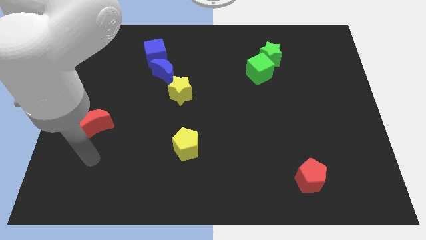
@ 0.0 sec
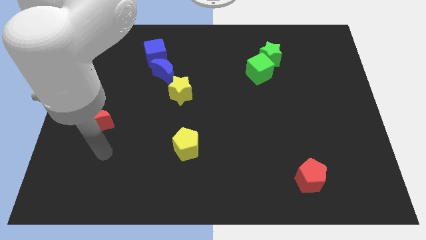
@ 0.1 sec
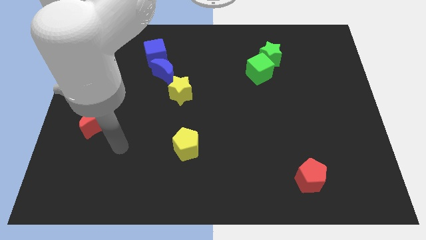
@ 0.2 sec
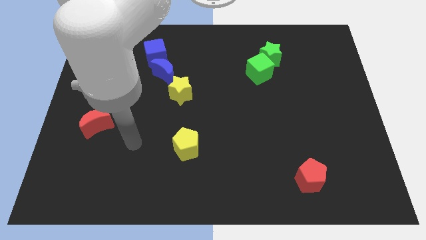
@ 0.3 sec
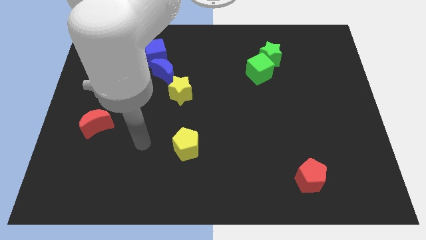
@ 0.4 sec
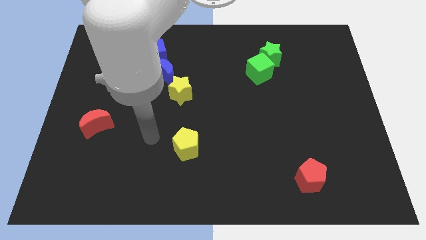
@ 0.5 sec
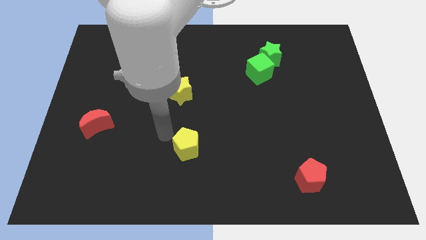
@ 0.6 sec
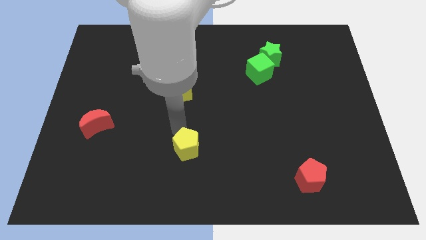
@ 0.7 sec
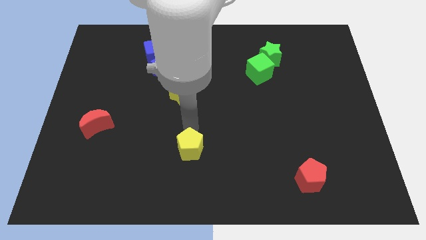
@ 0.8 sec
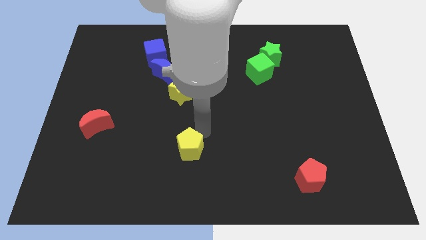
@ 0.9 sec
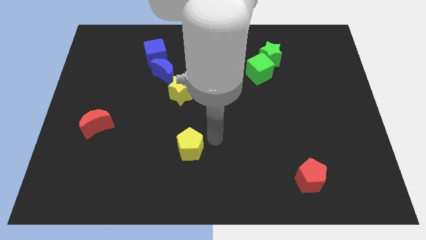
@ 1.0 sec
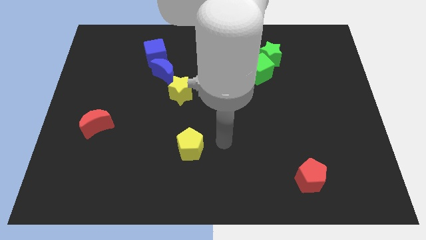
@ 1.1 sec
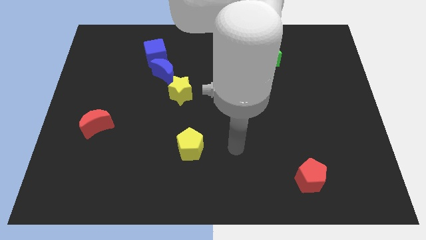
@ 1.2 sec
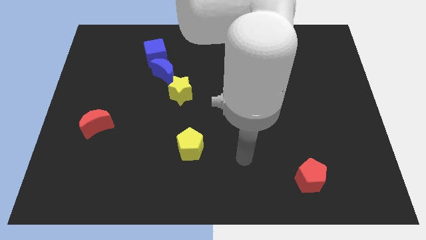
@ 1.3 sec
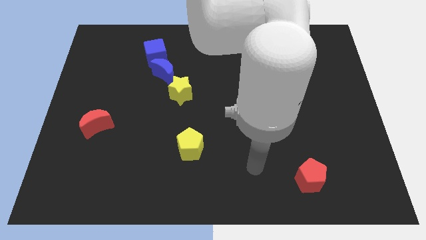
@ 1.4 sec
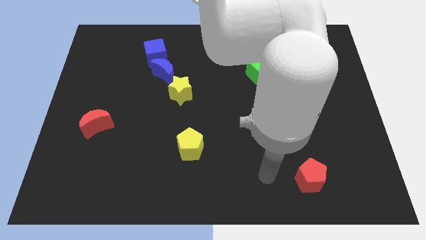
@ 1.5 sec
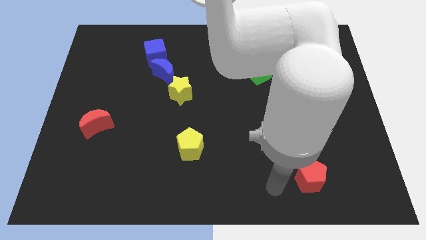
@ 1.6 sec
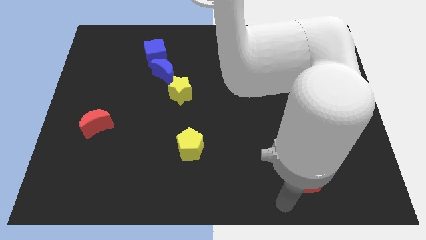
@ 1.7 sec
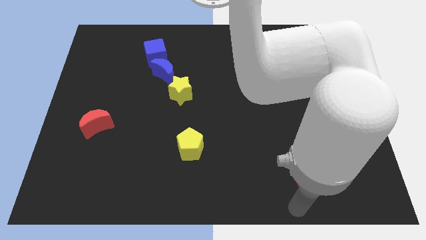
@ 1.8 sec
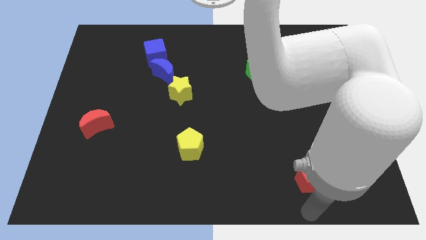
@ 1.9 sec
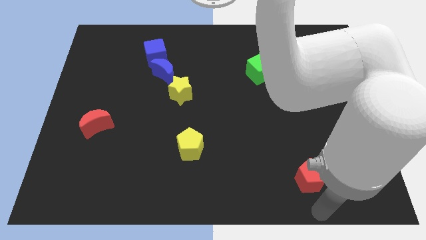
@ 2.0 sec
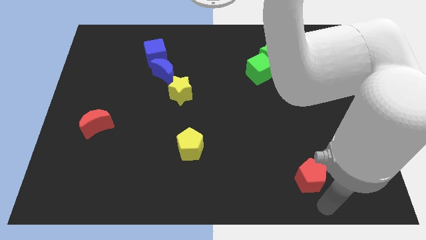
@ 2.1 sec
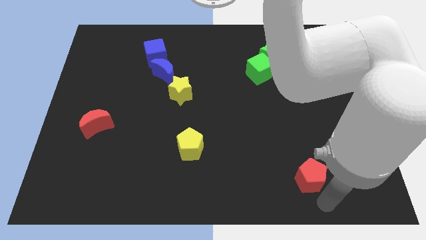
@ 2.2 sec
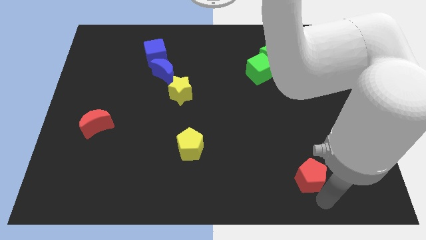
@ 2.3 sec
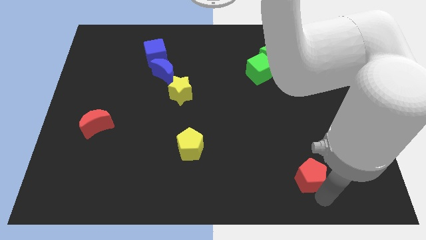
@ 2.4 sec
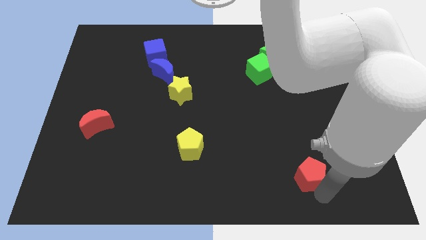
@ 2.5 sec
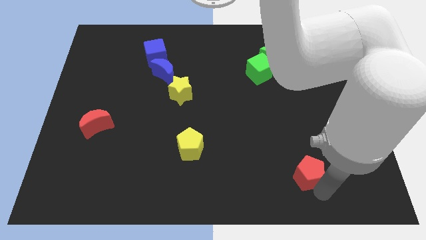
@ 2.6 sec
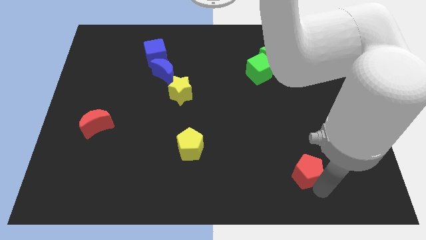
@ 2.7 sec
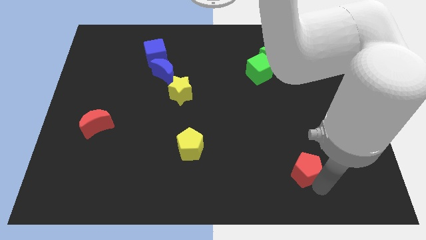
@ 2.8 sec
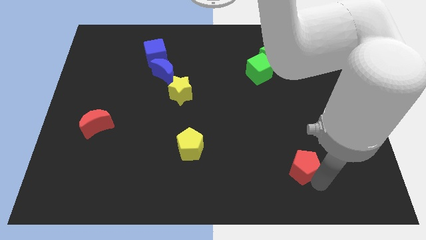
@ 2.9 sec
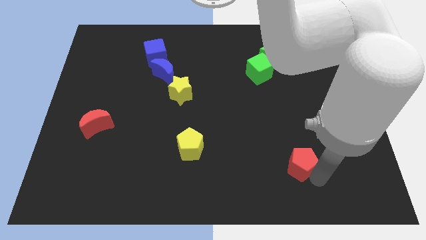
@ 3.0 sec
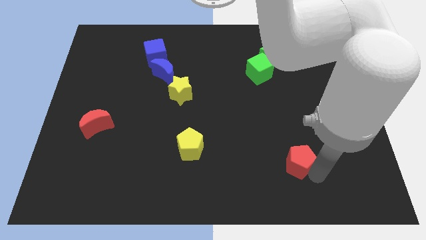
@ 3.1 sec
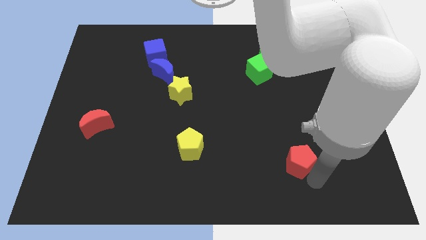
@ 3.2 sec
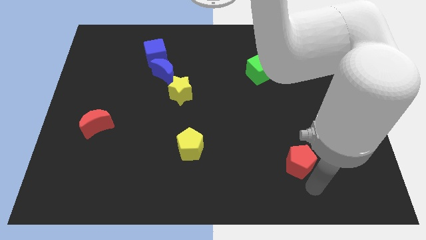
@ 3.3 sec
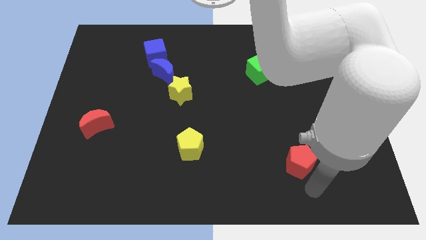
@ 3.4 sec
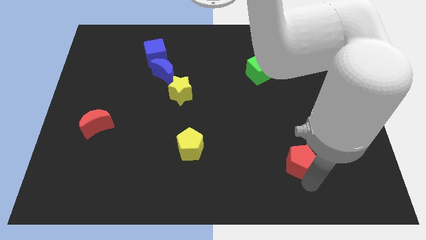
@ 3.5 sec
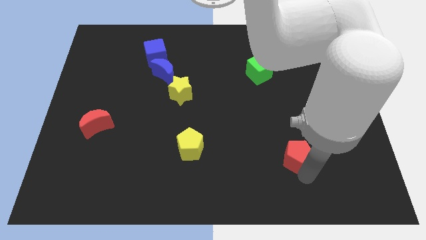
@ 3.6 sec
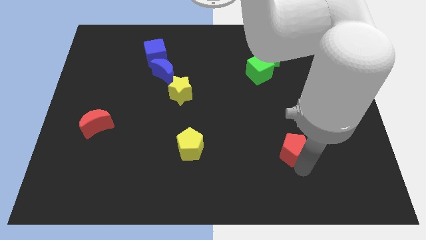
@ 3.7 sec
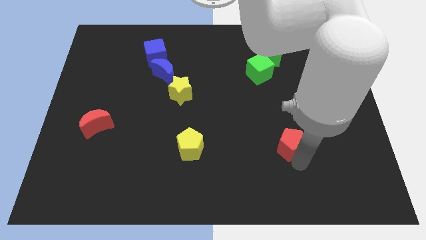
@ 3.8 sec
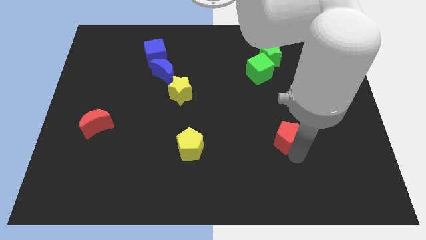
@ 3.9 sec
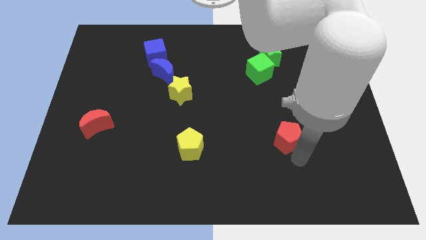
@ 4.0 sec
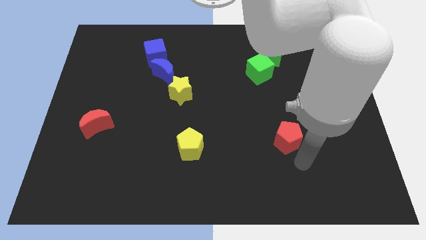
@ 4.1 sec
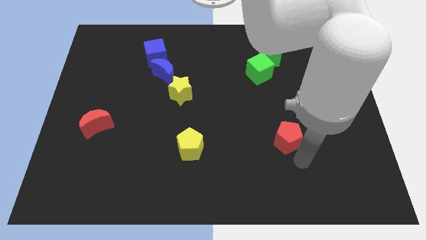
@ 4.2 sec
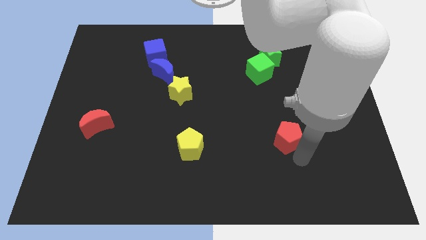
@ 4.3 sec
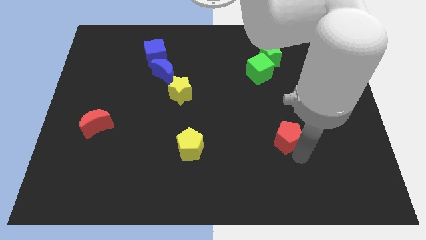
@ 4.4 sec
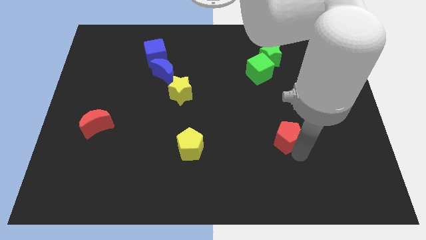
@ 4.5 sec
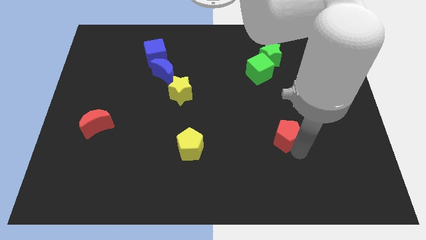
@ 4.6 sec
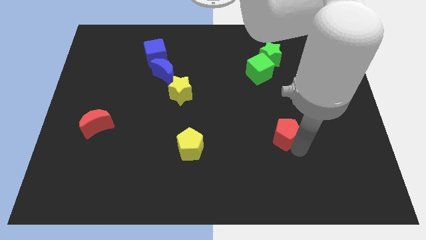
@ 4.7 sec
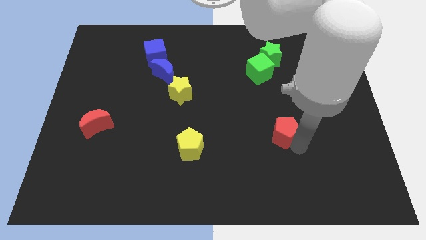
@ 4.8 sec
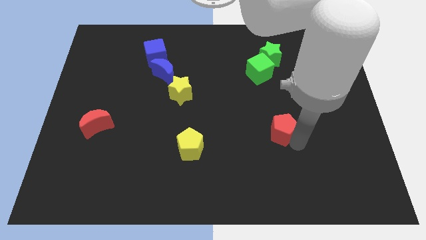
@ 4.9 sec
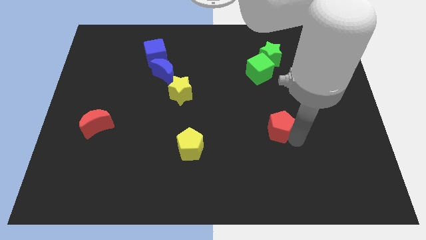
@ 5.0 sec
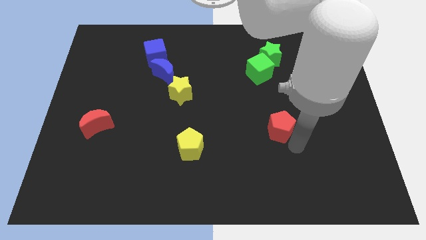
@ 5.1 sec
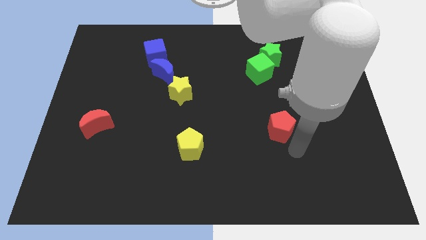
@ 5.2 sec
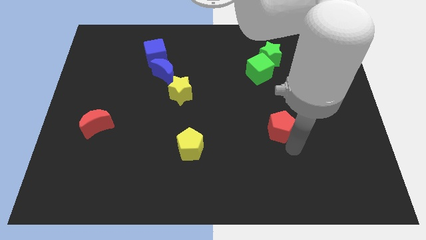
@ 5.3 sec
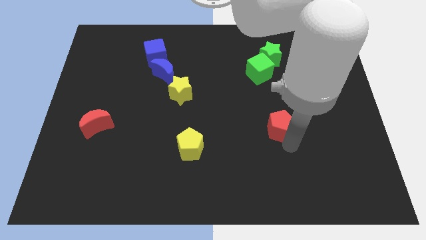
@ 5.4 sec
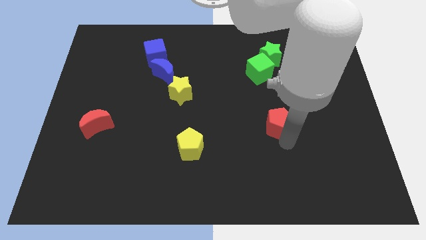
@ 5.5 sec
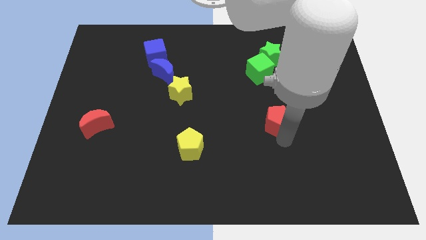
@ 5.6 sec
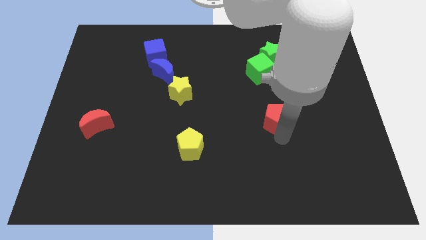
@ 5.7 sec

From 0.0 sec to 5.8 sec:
move the red pentagon to the bottom of the green cube

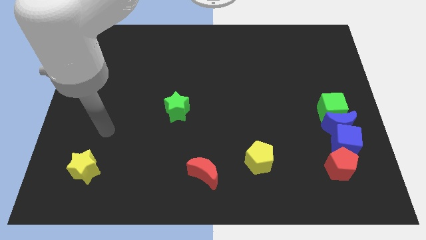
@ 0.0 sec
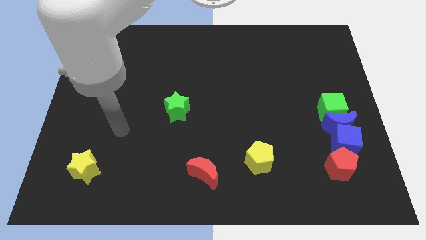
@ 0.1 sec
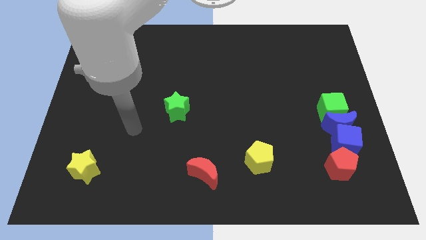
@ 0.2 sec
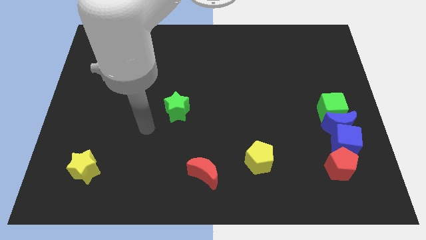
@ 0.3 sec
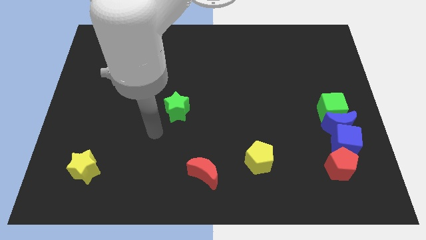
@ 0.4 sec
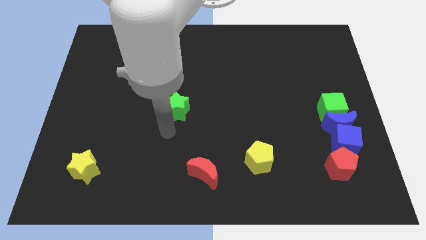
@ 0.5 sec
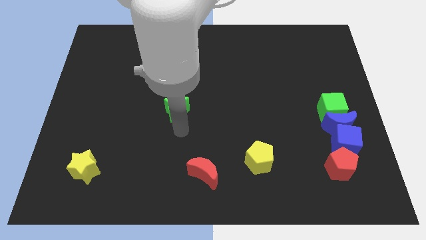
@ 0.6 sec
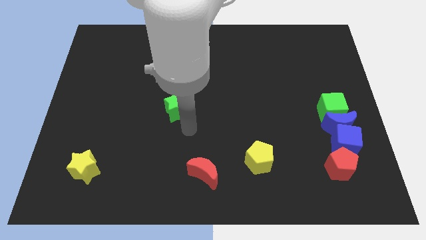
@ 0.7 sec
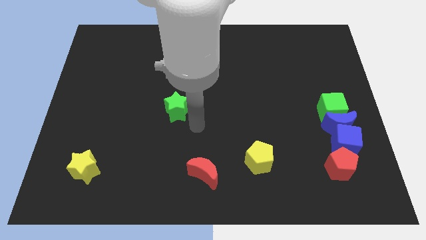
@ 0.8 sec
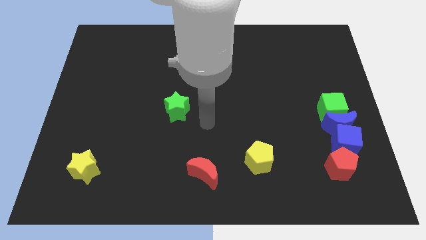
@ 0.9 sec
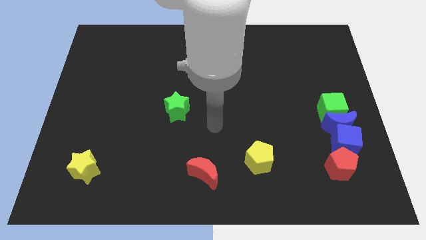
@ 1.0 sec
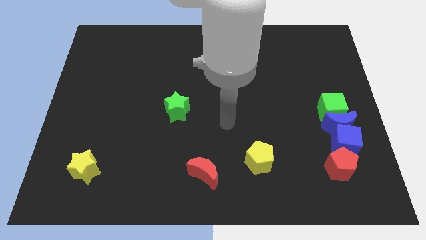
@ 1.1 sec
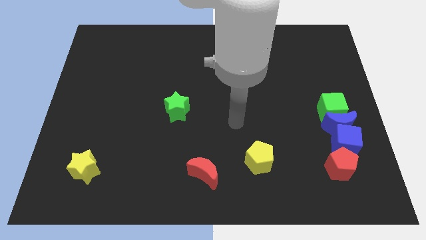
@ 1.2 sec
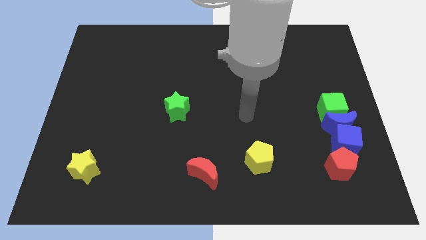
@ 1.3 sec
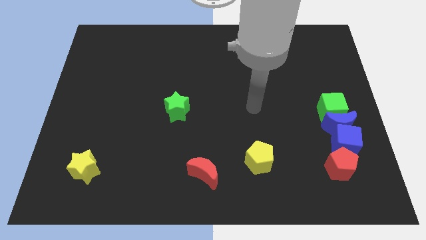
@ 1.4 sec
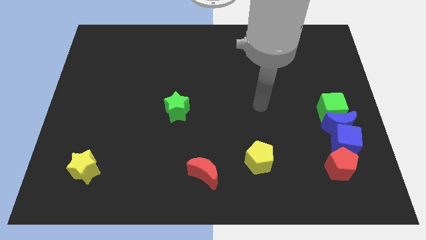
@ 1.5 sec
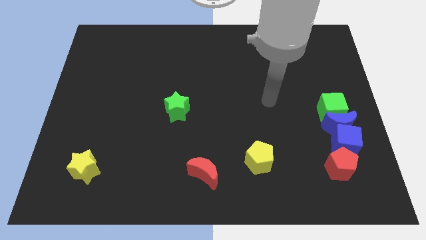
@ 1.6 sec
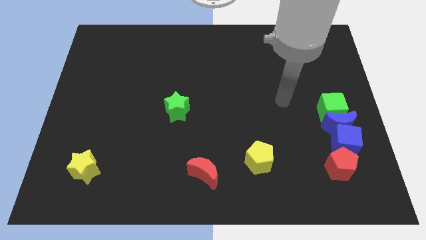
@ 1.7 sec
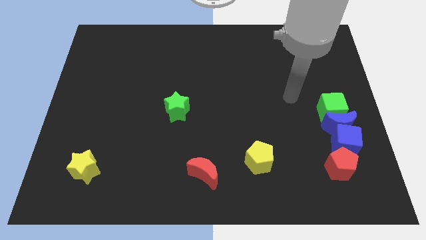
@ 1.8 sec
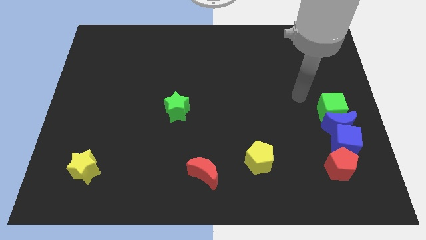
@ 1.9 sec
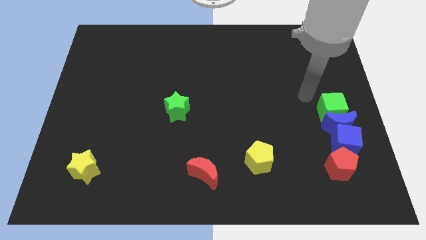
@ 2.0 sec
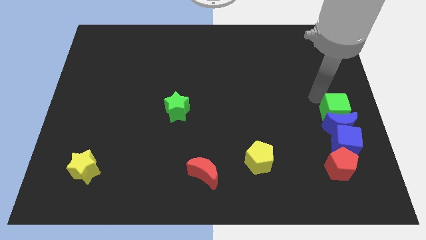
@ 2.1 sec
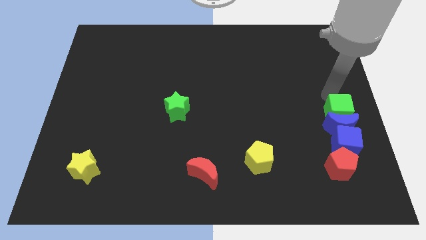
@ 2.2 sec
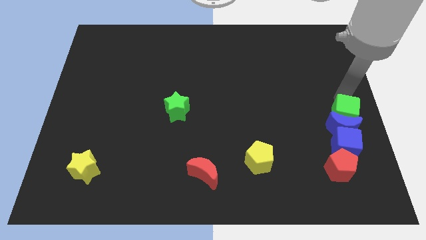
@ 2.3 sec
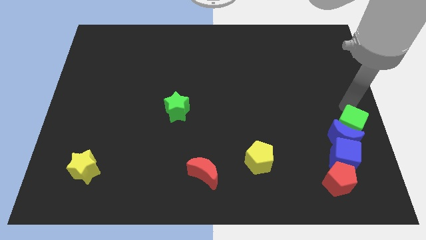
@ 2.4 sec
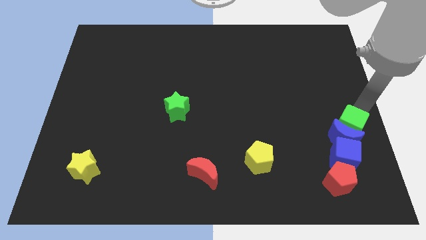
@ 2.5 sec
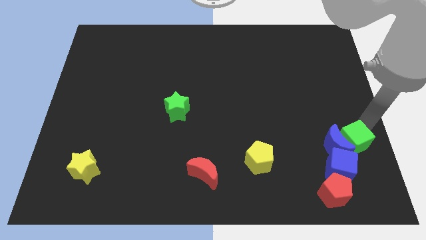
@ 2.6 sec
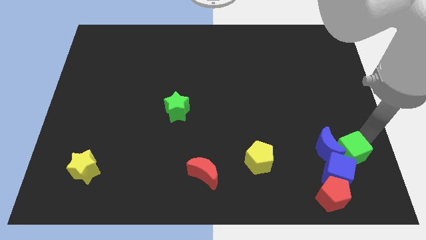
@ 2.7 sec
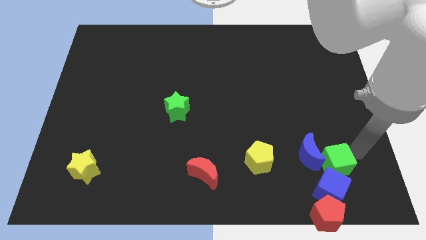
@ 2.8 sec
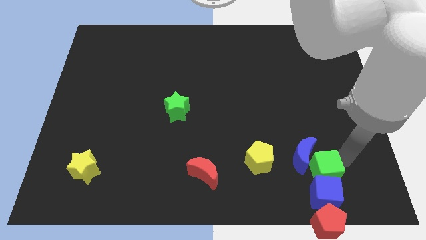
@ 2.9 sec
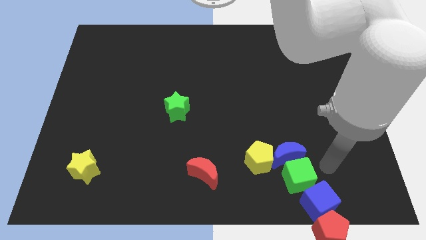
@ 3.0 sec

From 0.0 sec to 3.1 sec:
push the blue moon diagonally up and to the right of the yellow pentagon
